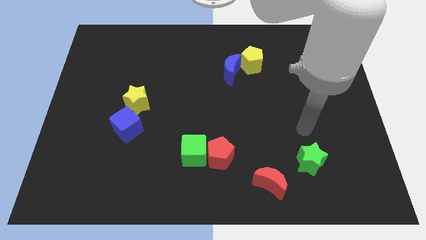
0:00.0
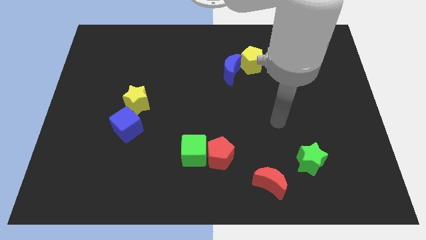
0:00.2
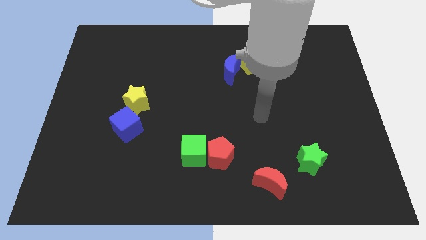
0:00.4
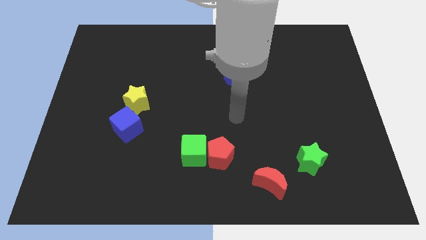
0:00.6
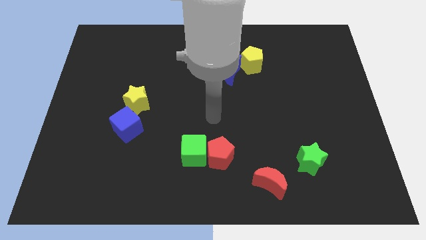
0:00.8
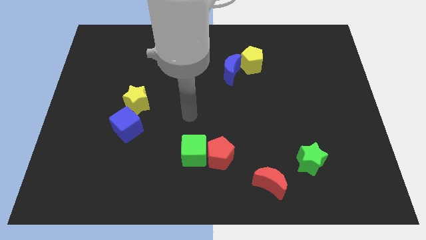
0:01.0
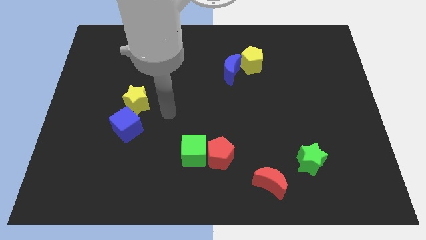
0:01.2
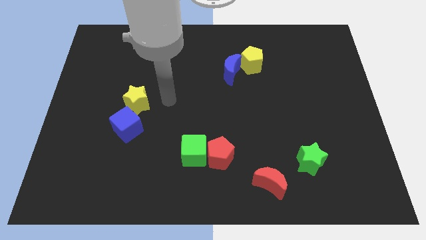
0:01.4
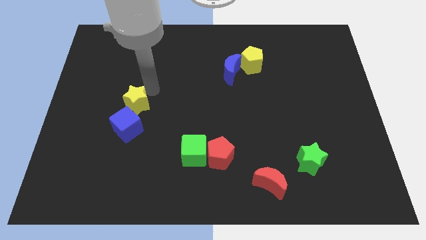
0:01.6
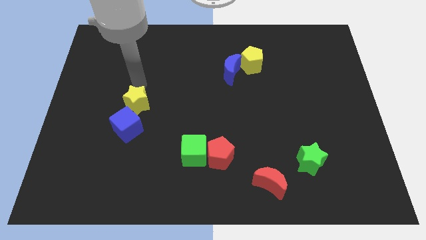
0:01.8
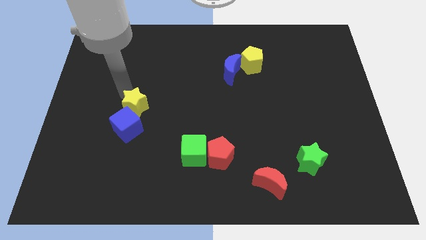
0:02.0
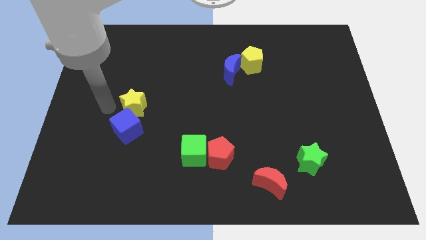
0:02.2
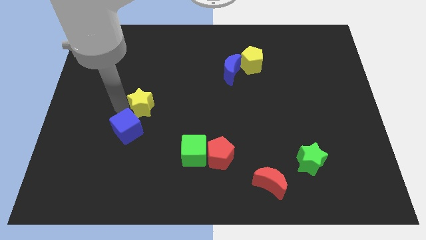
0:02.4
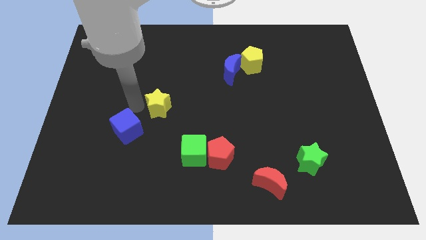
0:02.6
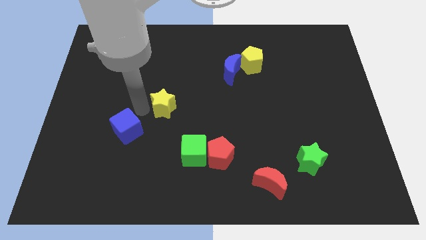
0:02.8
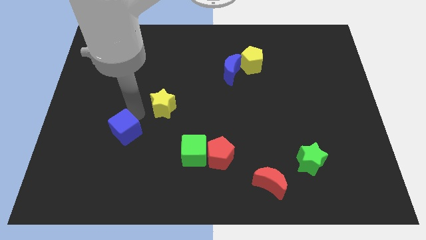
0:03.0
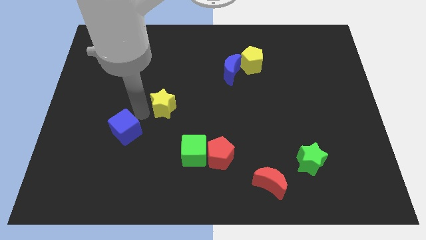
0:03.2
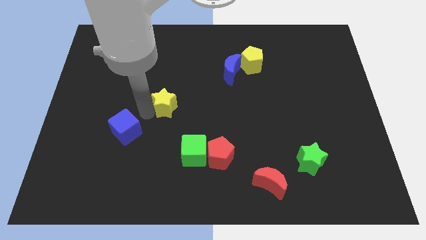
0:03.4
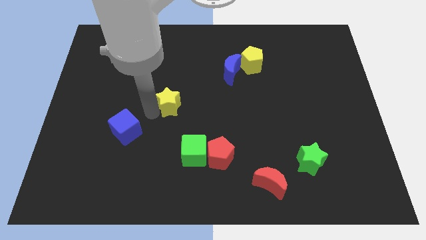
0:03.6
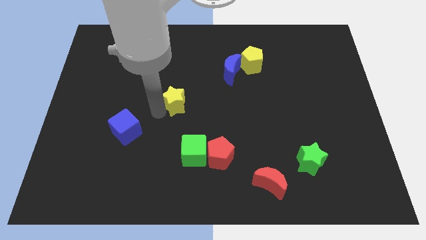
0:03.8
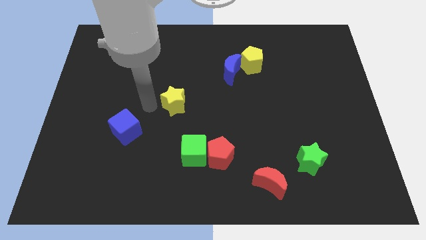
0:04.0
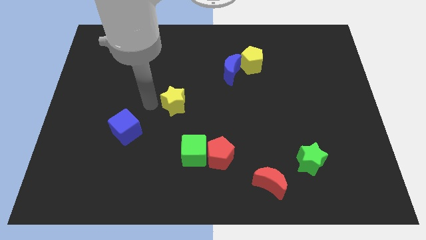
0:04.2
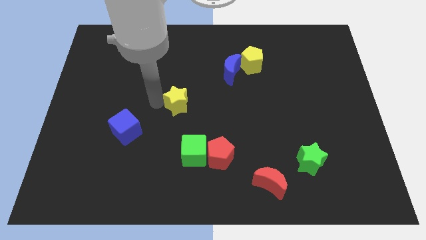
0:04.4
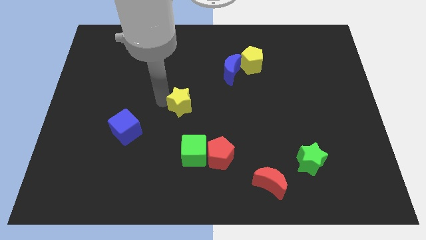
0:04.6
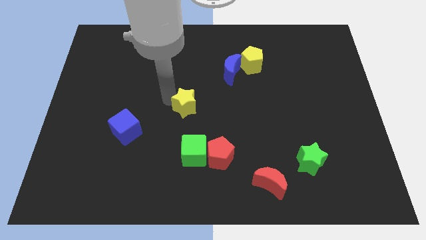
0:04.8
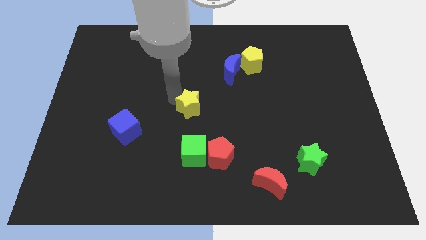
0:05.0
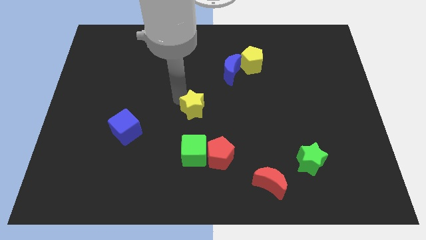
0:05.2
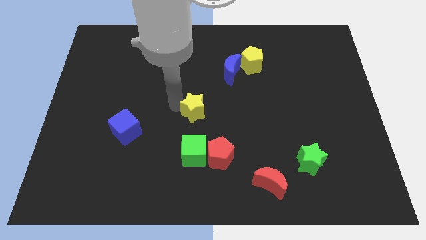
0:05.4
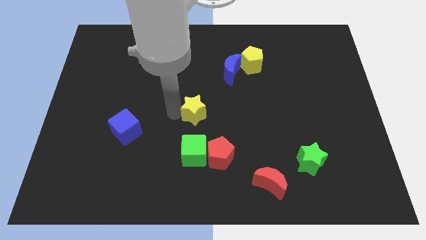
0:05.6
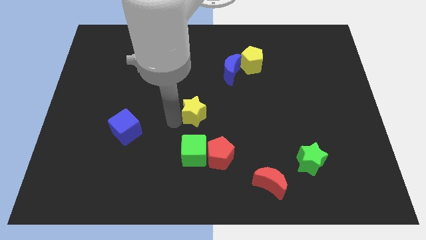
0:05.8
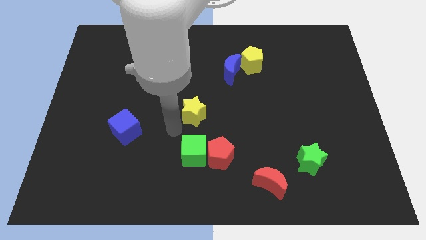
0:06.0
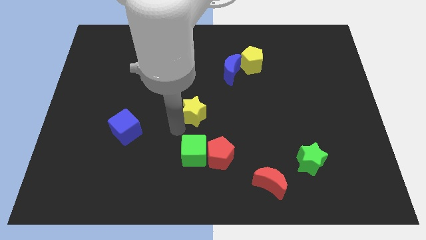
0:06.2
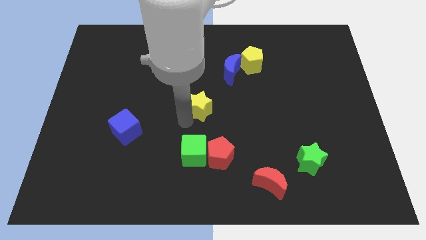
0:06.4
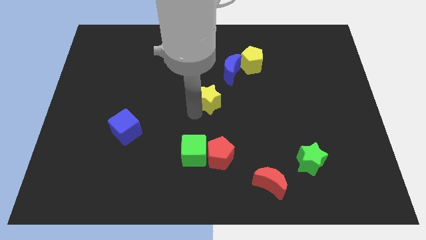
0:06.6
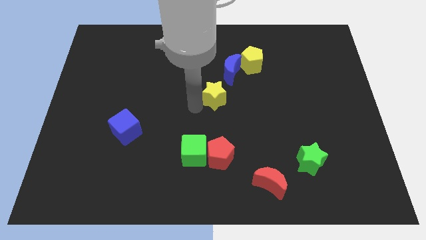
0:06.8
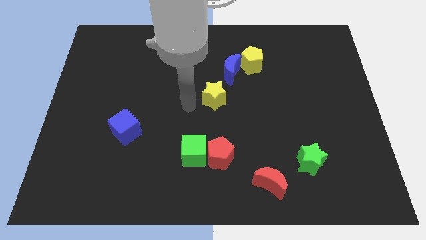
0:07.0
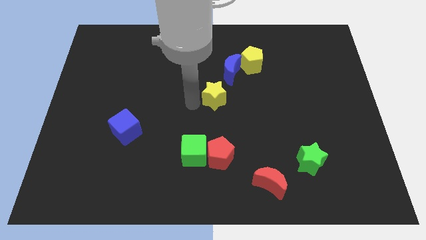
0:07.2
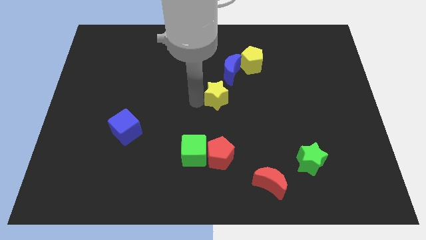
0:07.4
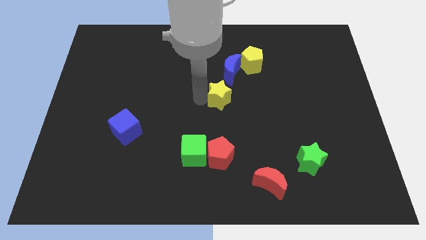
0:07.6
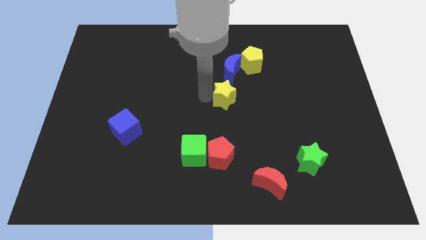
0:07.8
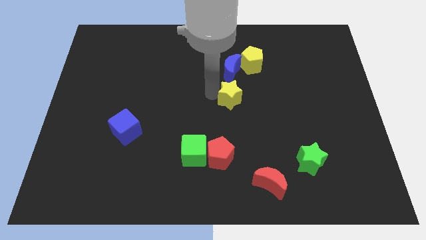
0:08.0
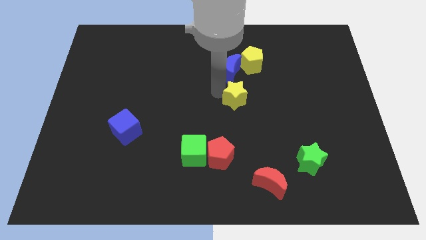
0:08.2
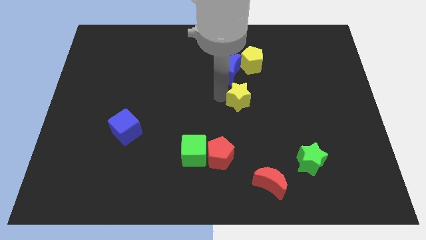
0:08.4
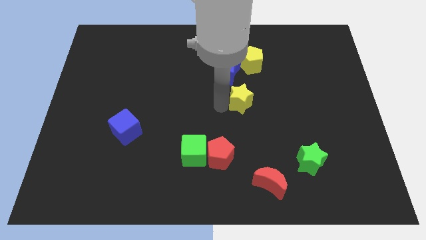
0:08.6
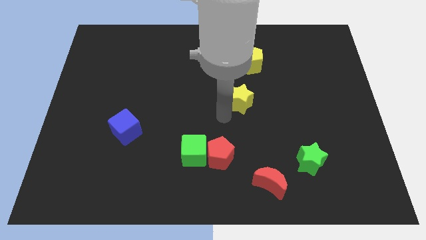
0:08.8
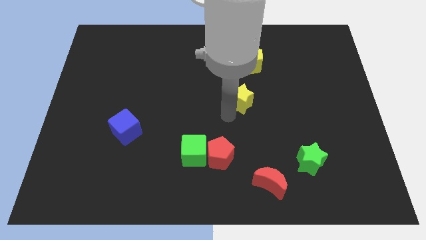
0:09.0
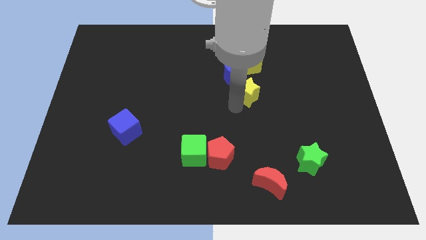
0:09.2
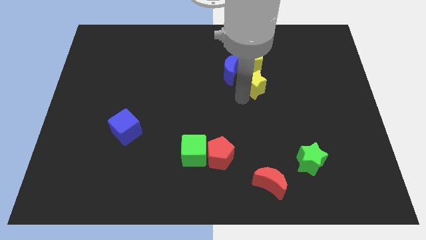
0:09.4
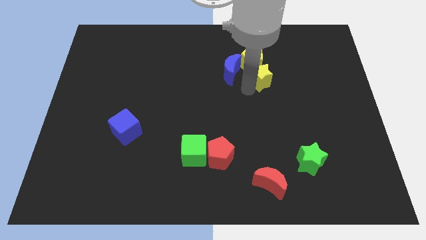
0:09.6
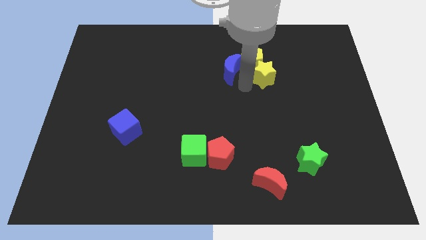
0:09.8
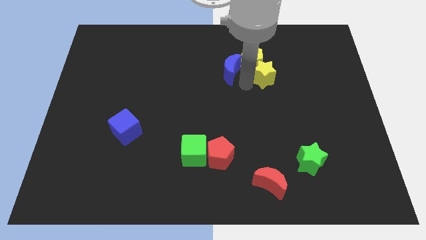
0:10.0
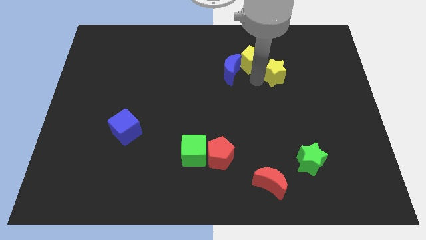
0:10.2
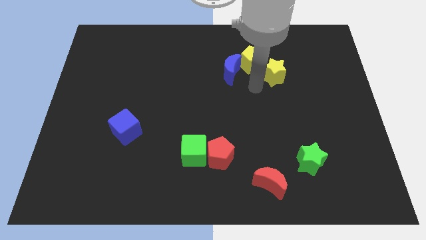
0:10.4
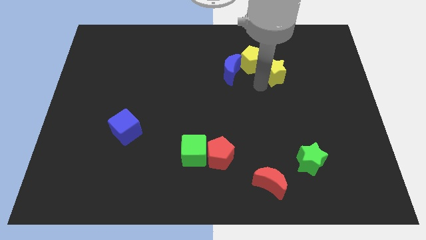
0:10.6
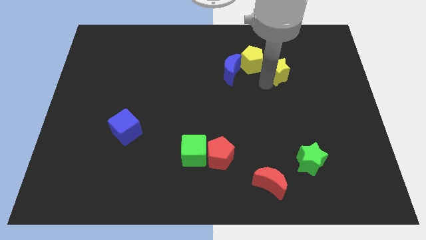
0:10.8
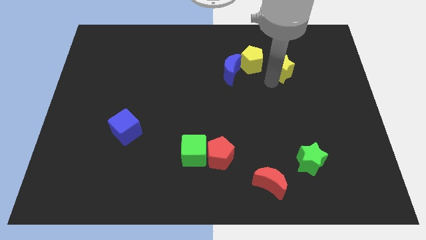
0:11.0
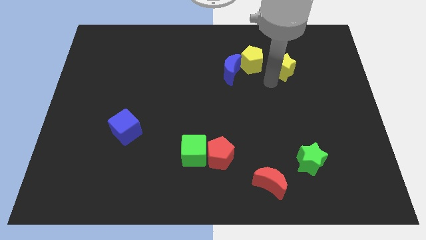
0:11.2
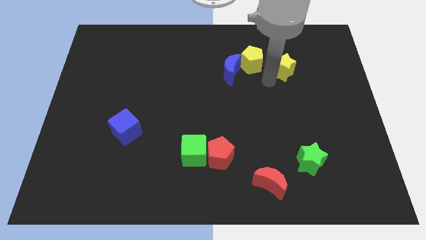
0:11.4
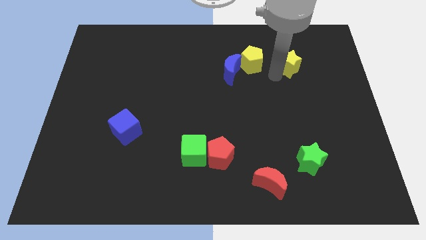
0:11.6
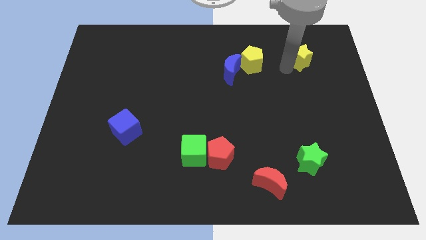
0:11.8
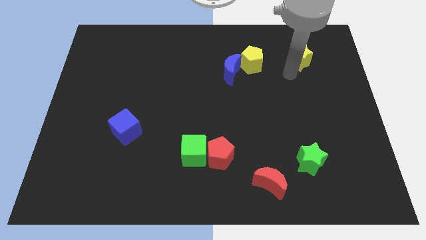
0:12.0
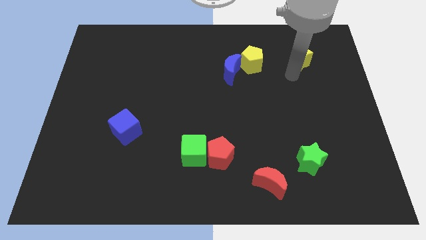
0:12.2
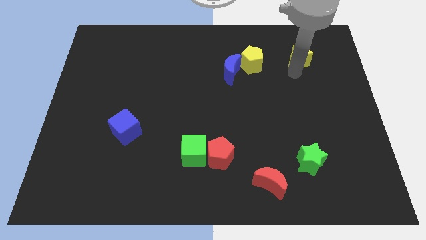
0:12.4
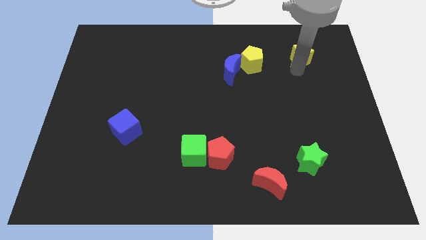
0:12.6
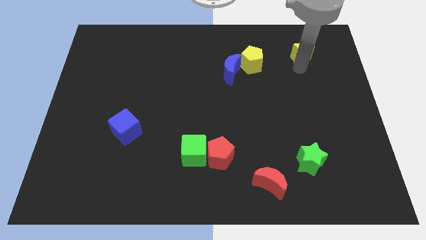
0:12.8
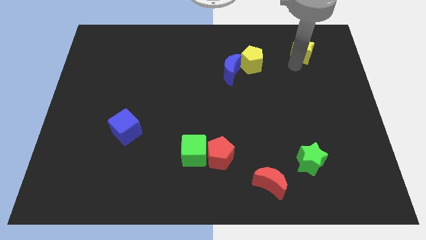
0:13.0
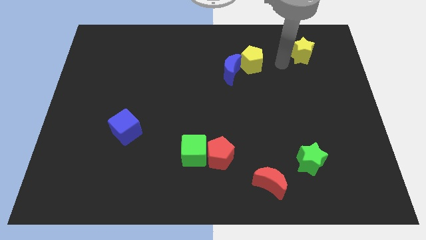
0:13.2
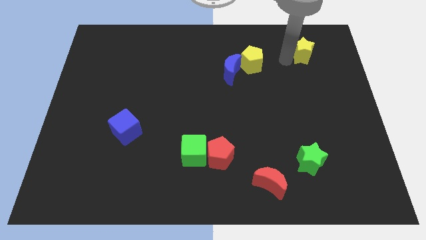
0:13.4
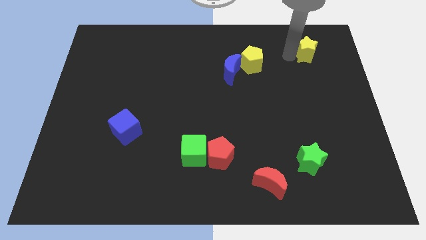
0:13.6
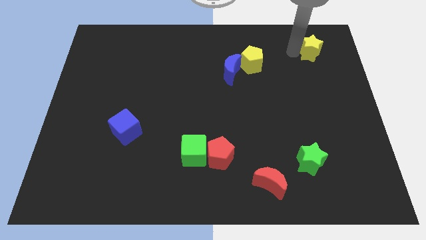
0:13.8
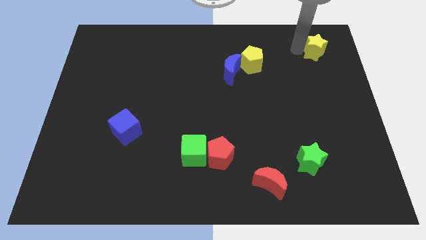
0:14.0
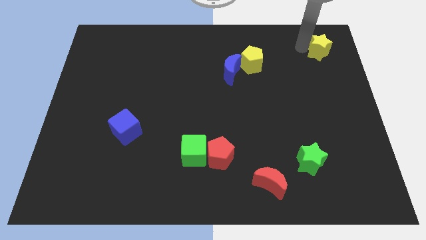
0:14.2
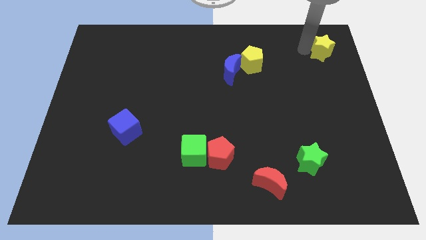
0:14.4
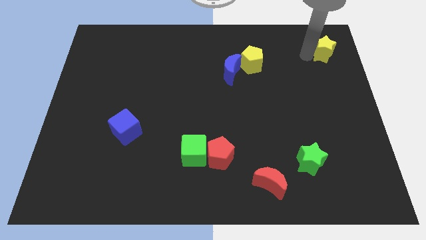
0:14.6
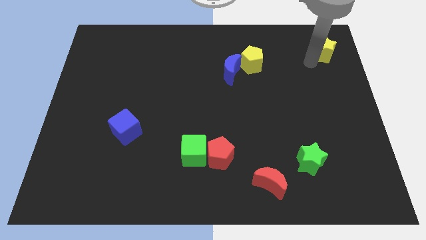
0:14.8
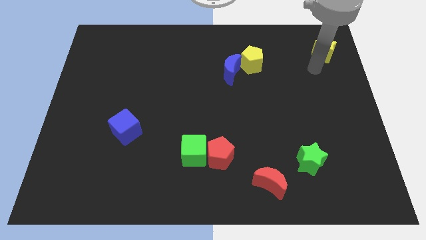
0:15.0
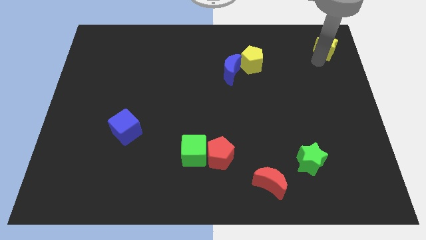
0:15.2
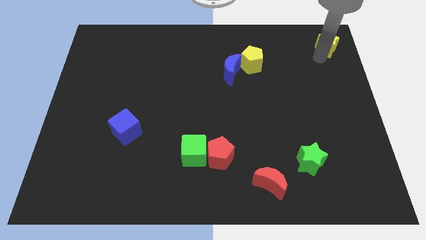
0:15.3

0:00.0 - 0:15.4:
slide the yellow star to the top right corner
